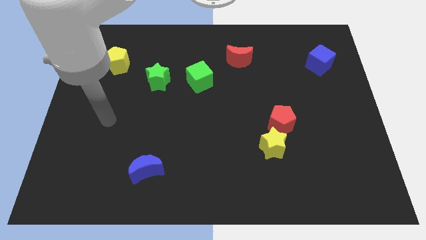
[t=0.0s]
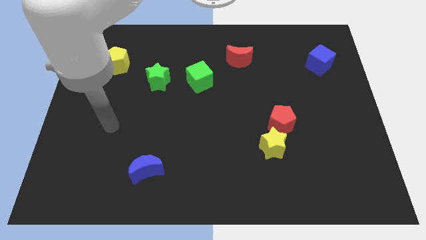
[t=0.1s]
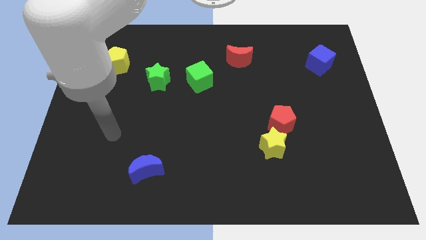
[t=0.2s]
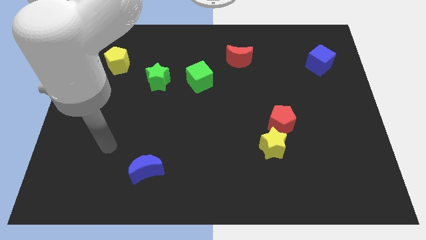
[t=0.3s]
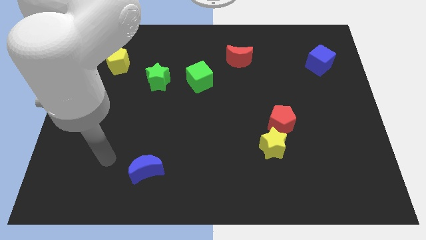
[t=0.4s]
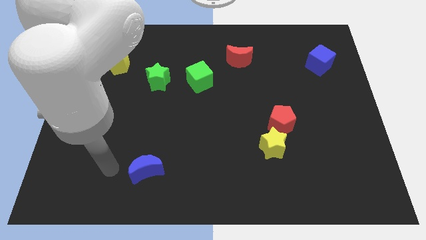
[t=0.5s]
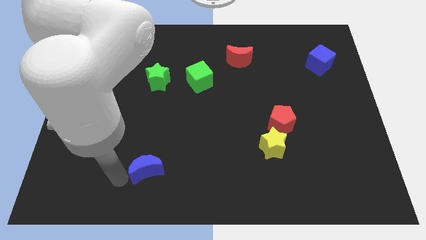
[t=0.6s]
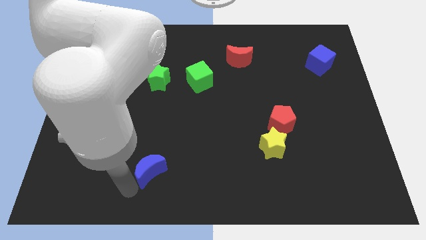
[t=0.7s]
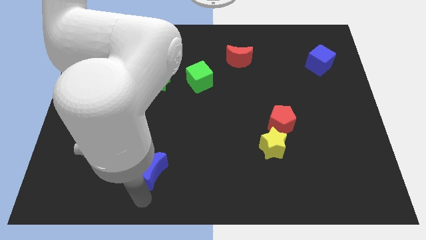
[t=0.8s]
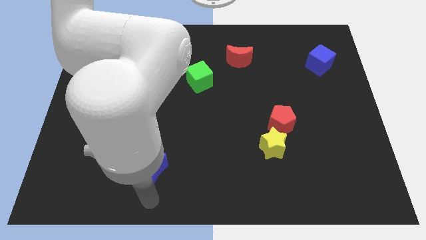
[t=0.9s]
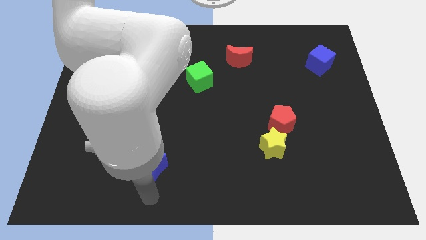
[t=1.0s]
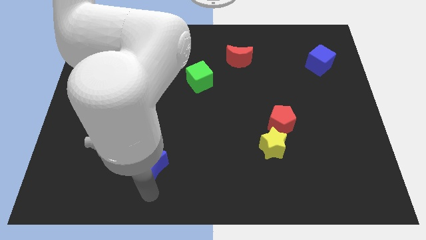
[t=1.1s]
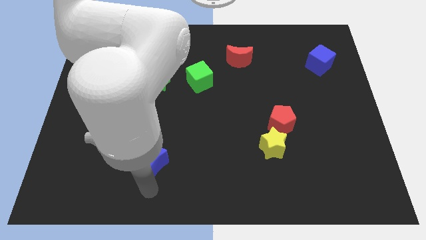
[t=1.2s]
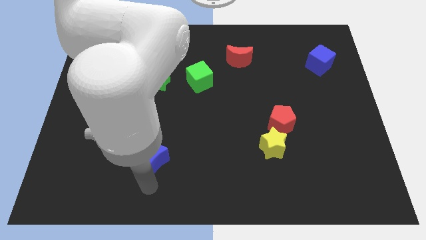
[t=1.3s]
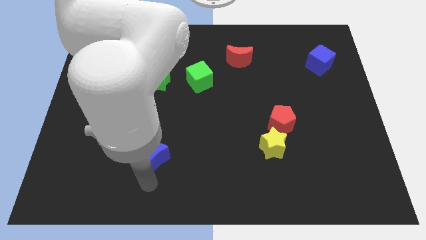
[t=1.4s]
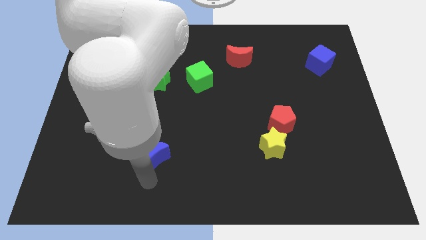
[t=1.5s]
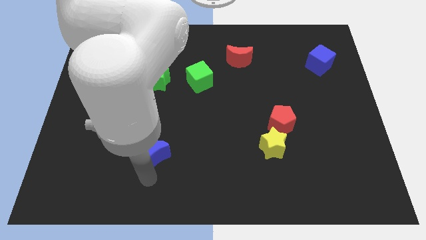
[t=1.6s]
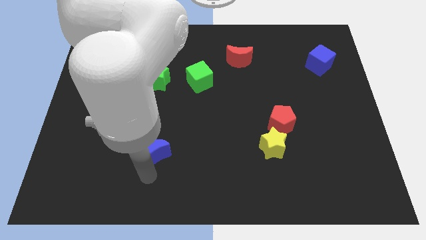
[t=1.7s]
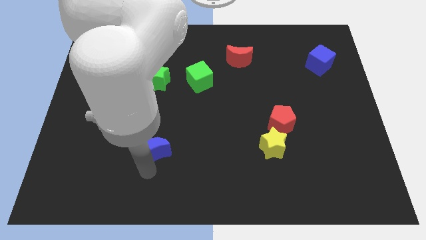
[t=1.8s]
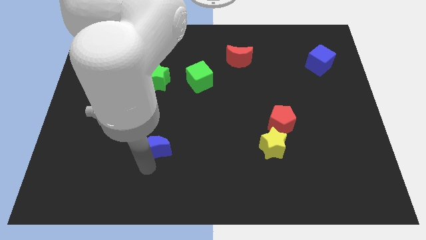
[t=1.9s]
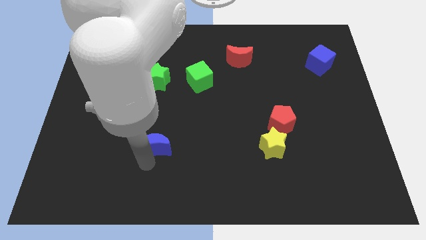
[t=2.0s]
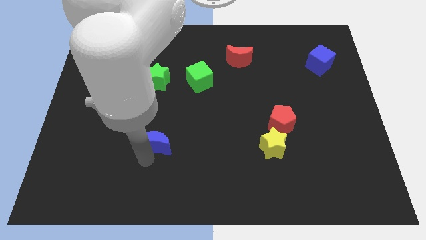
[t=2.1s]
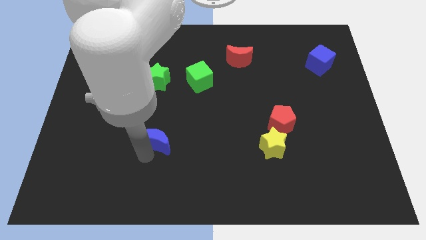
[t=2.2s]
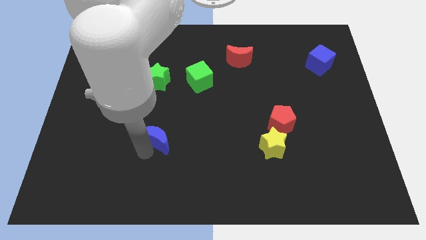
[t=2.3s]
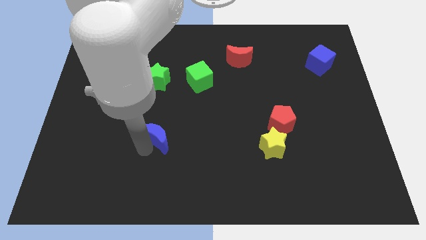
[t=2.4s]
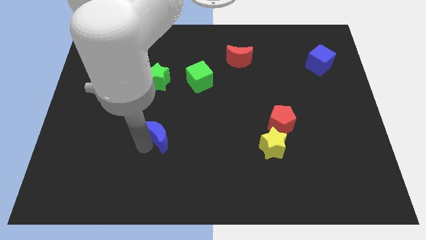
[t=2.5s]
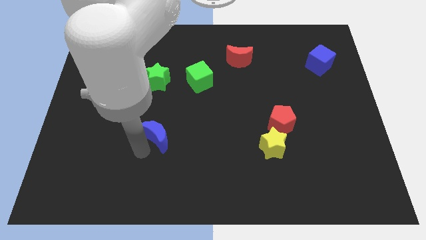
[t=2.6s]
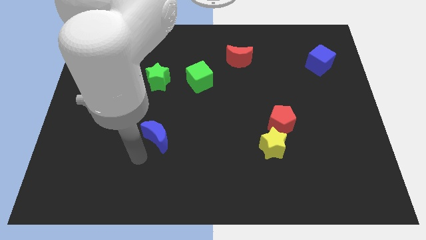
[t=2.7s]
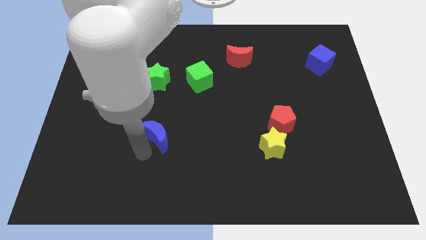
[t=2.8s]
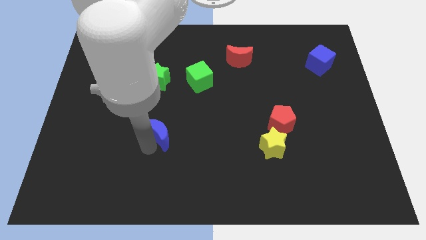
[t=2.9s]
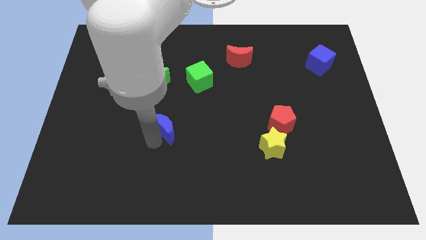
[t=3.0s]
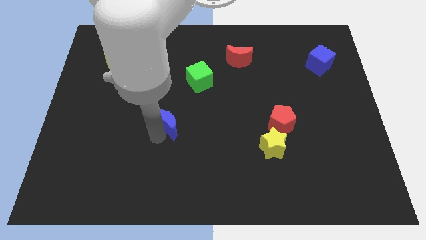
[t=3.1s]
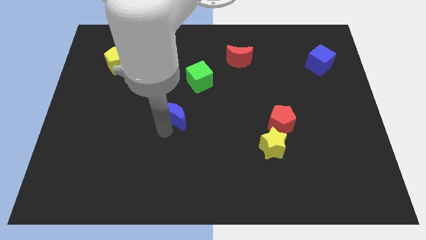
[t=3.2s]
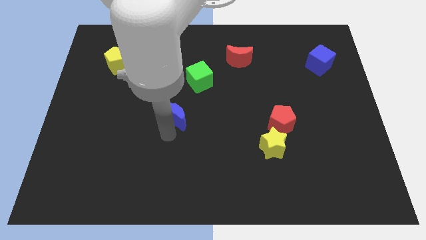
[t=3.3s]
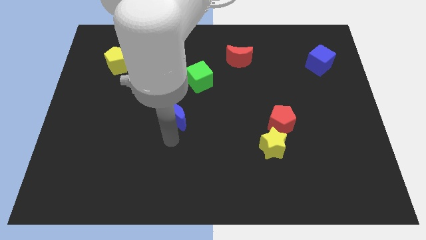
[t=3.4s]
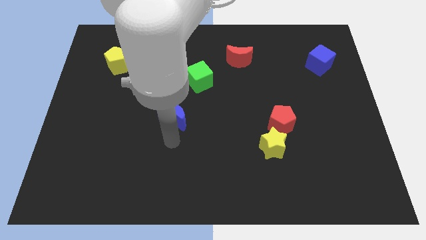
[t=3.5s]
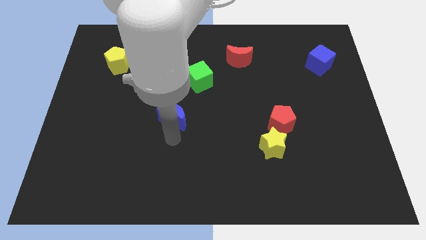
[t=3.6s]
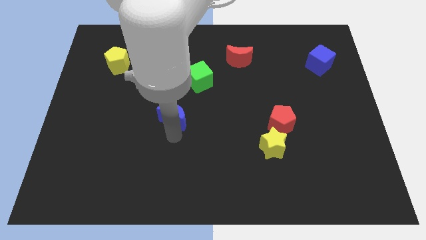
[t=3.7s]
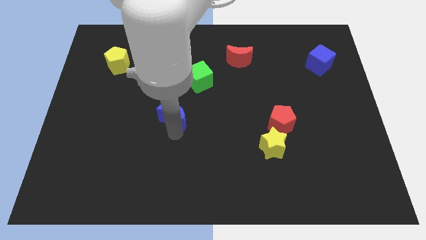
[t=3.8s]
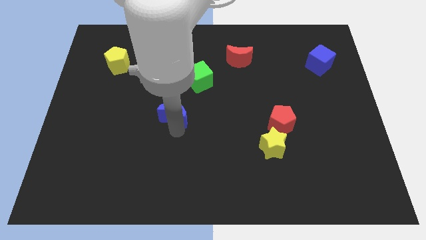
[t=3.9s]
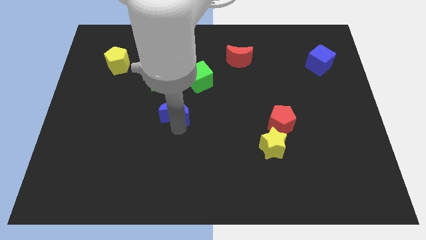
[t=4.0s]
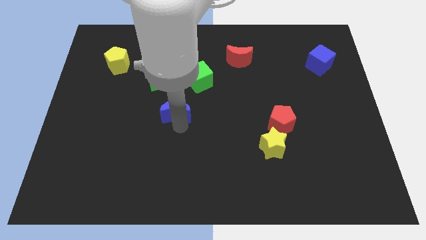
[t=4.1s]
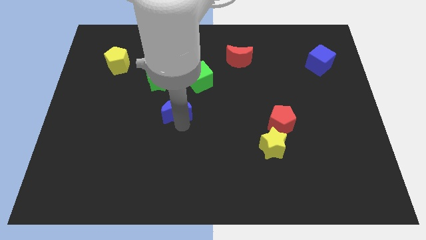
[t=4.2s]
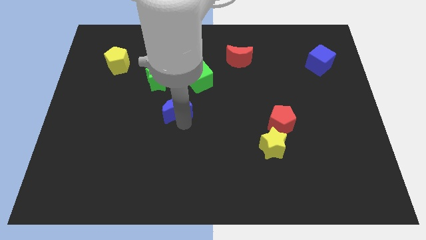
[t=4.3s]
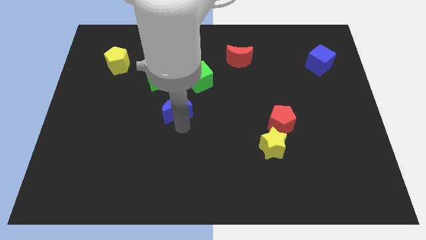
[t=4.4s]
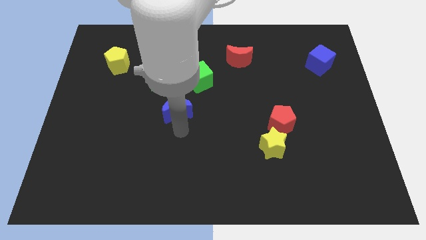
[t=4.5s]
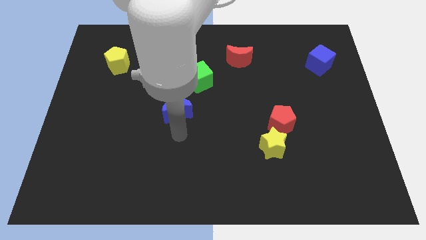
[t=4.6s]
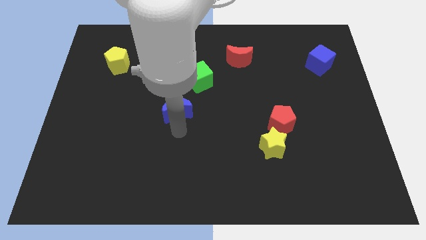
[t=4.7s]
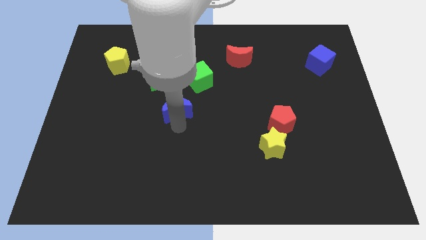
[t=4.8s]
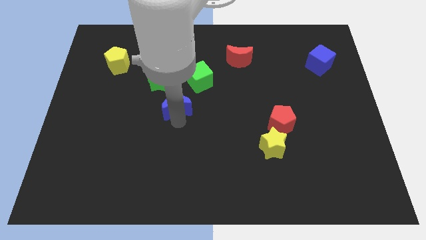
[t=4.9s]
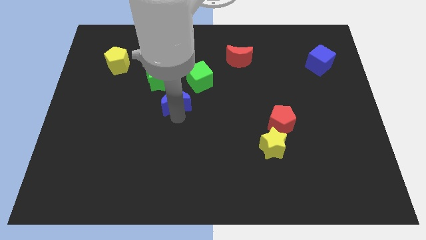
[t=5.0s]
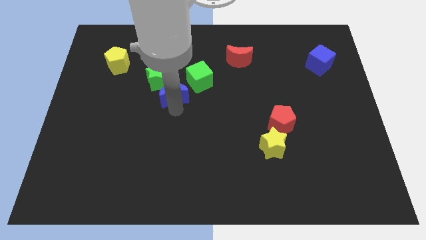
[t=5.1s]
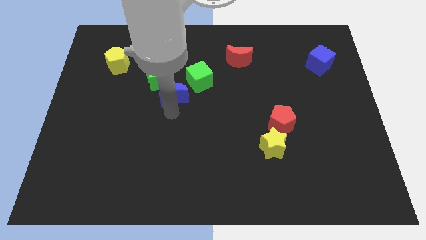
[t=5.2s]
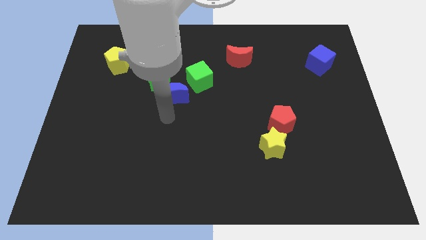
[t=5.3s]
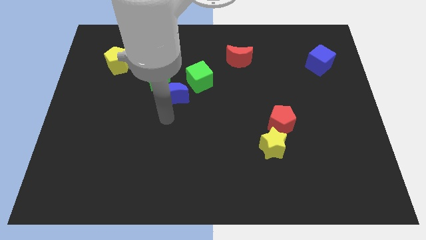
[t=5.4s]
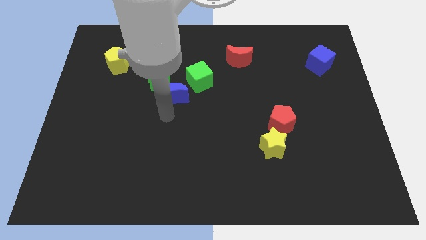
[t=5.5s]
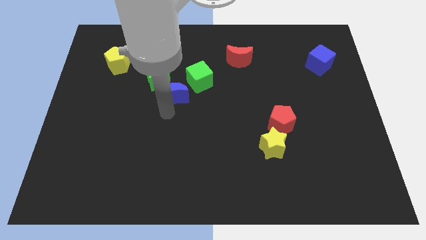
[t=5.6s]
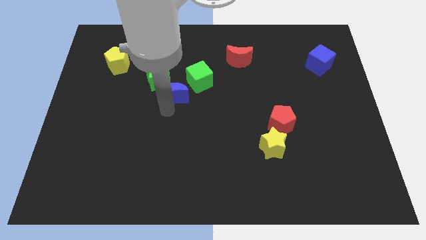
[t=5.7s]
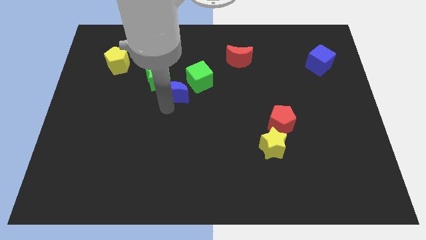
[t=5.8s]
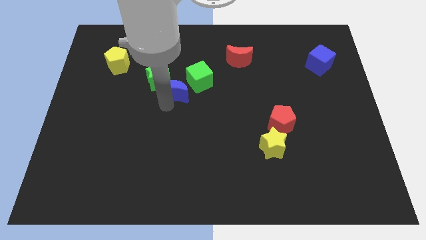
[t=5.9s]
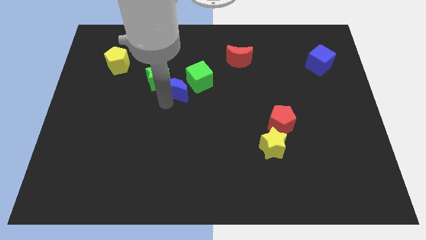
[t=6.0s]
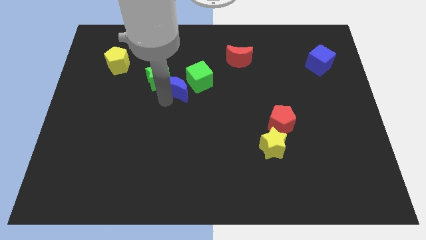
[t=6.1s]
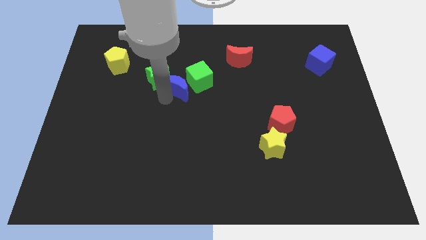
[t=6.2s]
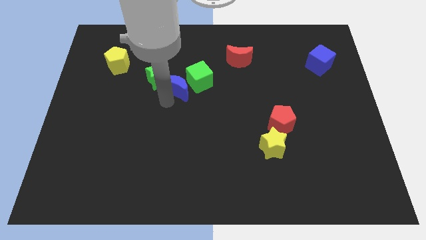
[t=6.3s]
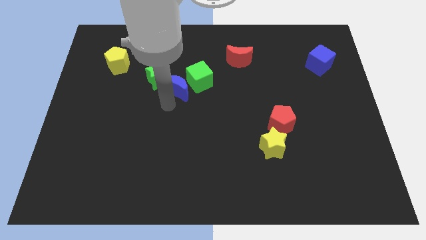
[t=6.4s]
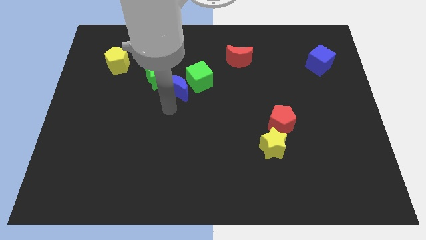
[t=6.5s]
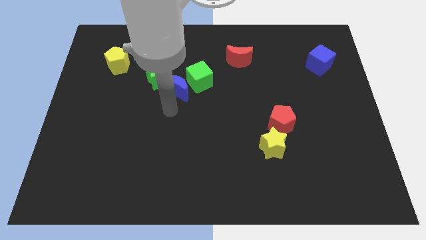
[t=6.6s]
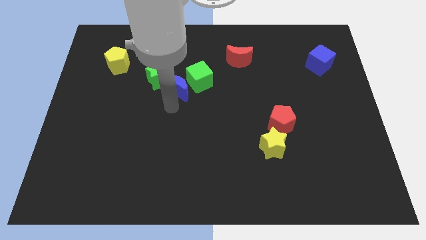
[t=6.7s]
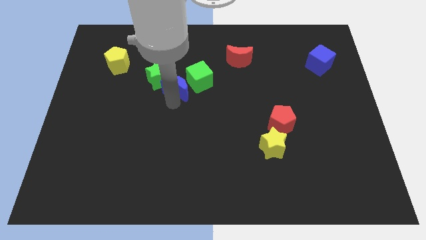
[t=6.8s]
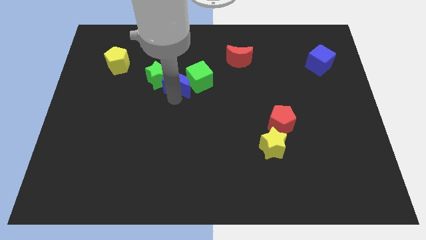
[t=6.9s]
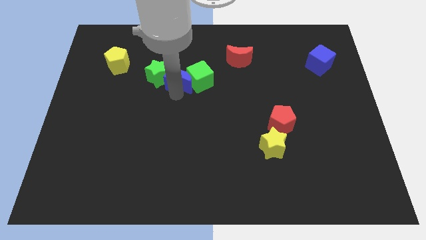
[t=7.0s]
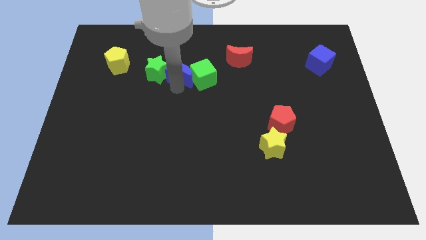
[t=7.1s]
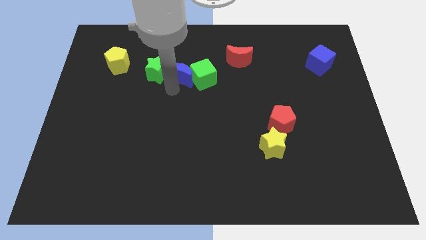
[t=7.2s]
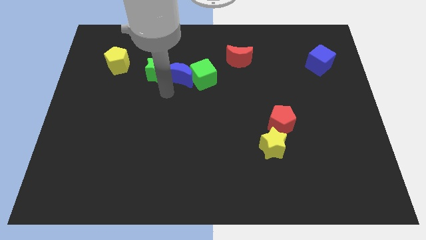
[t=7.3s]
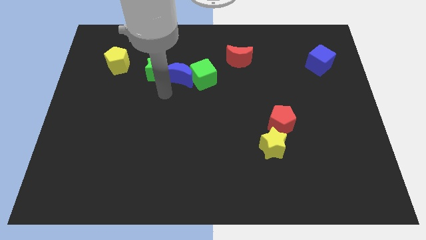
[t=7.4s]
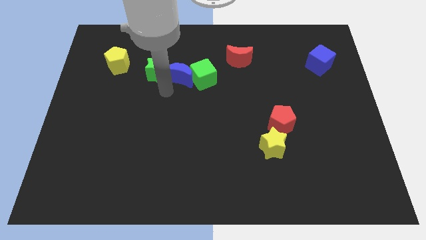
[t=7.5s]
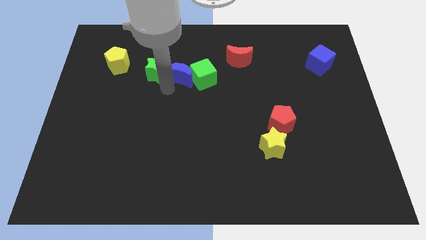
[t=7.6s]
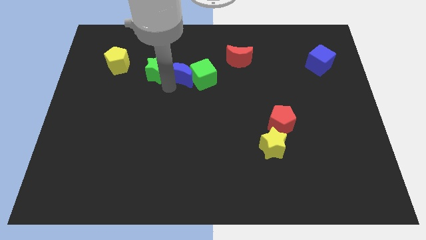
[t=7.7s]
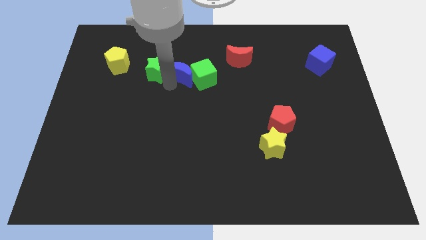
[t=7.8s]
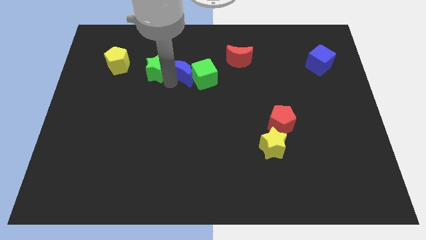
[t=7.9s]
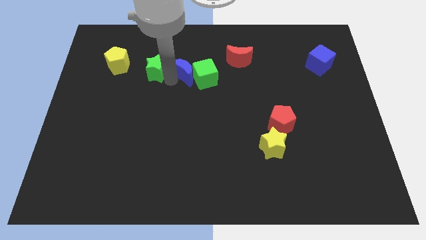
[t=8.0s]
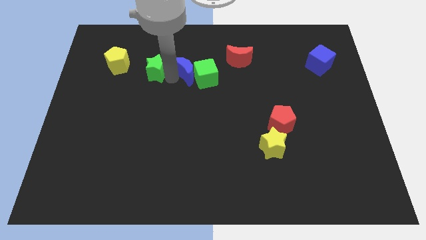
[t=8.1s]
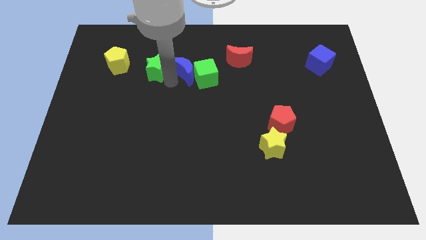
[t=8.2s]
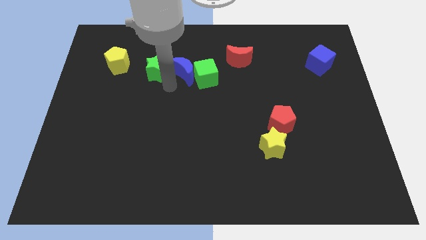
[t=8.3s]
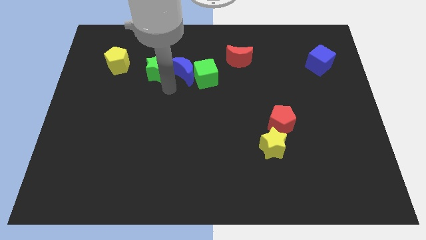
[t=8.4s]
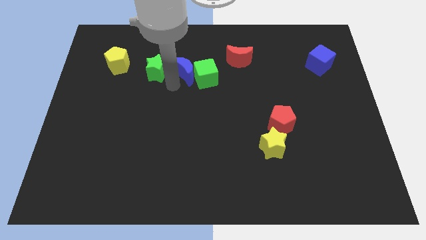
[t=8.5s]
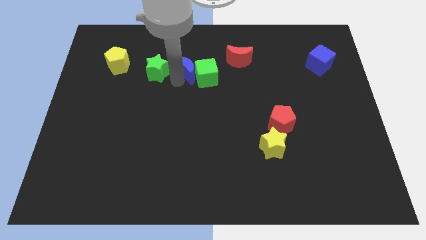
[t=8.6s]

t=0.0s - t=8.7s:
push the blue moon to the left of the red moon
